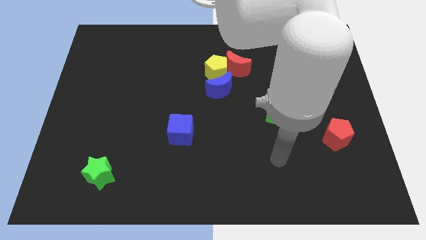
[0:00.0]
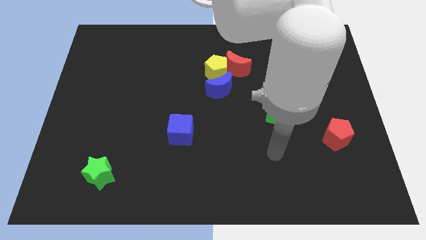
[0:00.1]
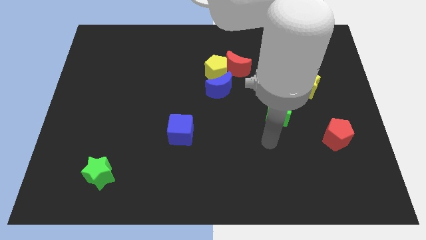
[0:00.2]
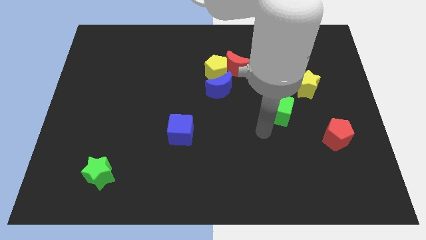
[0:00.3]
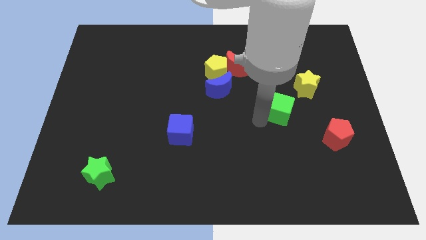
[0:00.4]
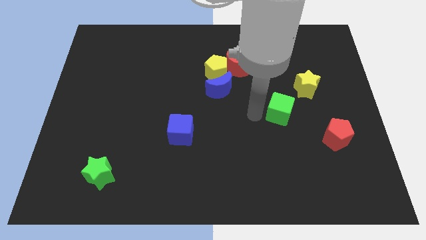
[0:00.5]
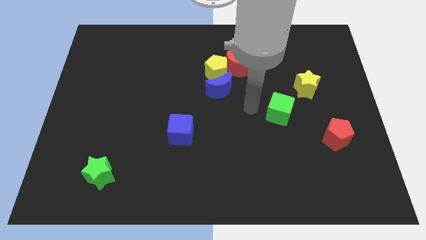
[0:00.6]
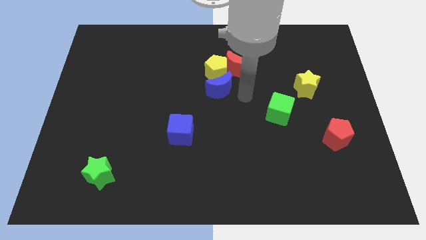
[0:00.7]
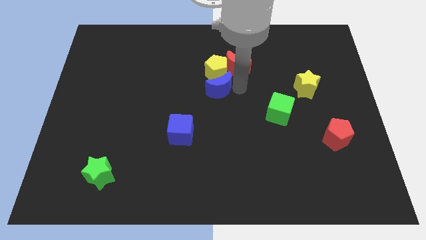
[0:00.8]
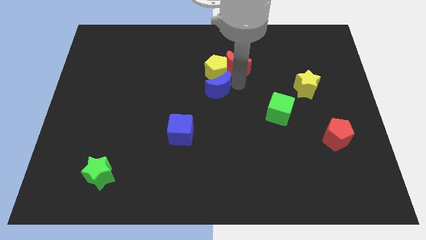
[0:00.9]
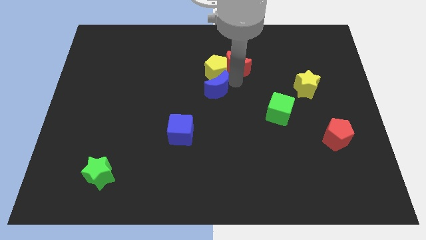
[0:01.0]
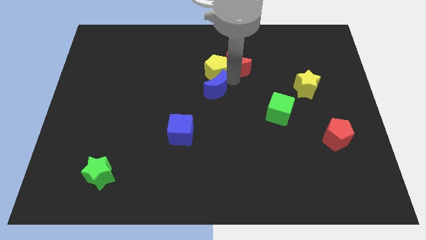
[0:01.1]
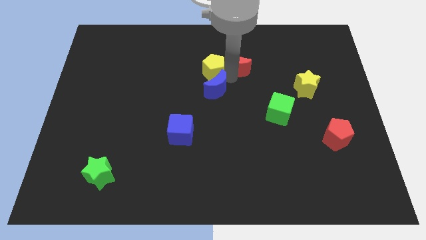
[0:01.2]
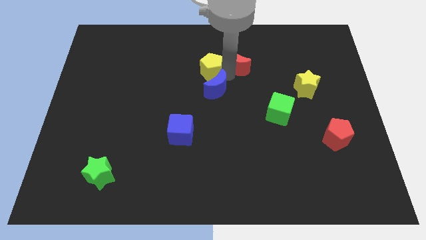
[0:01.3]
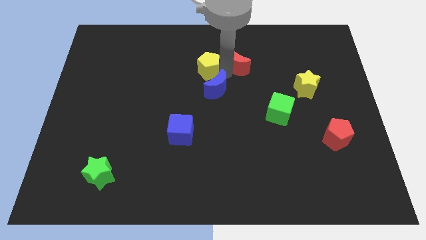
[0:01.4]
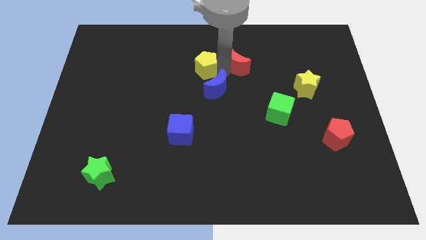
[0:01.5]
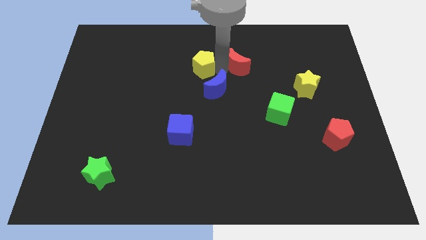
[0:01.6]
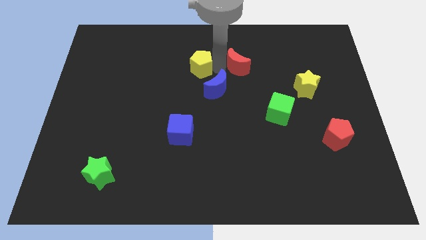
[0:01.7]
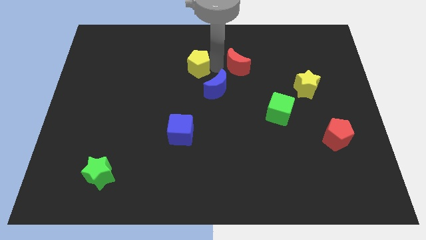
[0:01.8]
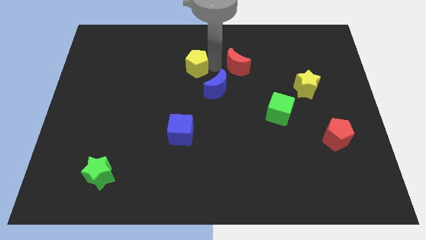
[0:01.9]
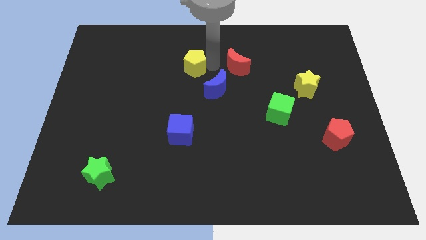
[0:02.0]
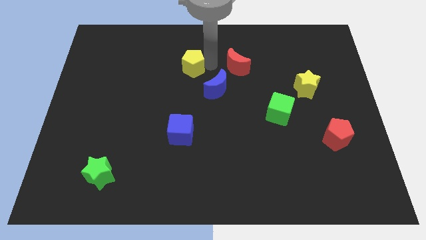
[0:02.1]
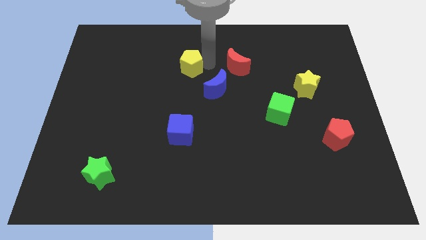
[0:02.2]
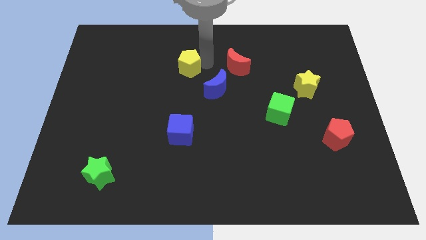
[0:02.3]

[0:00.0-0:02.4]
move the yellow pentagon away from the red moon and blue moon

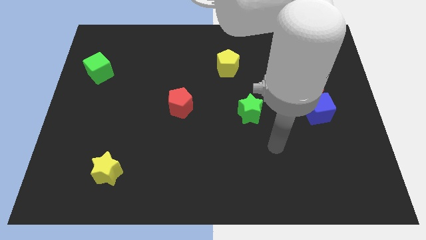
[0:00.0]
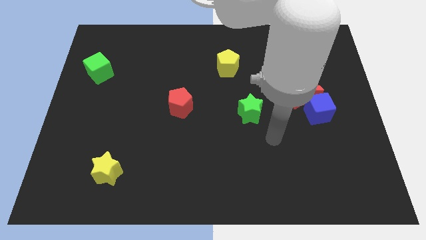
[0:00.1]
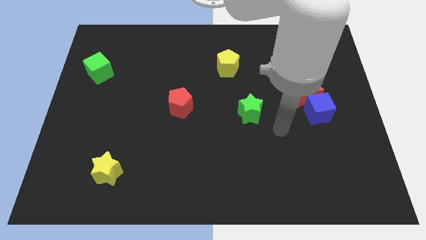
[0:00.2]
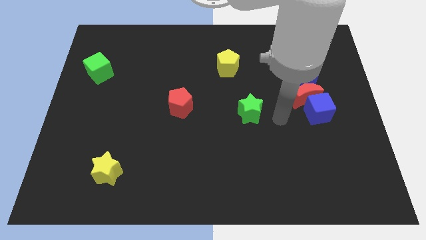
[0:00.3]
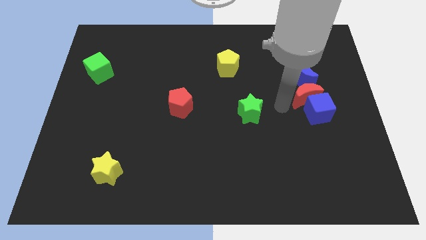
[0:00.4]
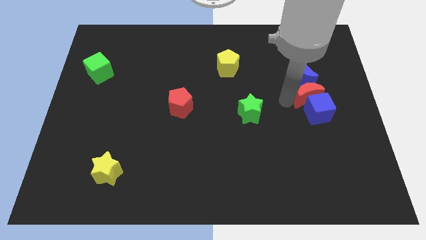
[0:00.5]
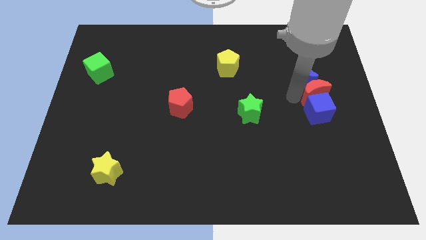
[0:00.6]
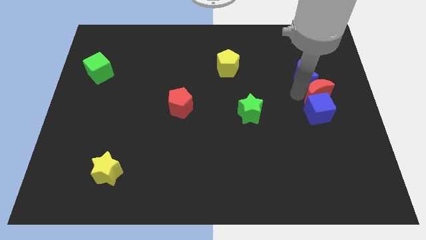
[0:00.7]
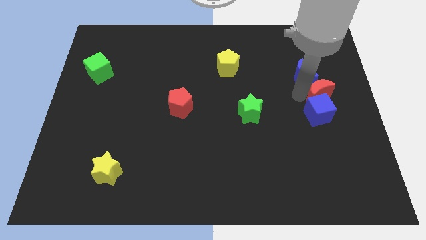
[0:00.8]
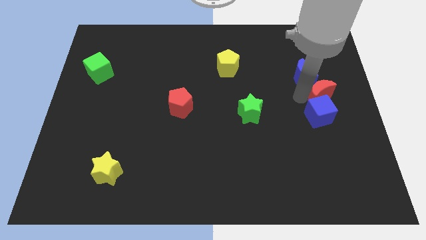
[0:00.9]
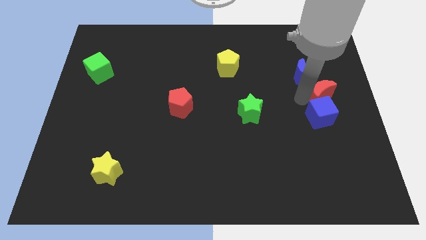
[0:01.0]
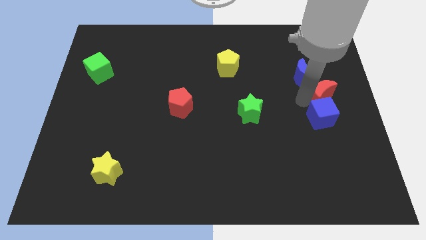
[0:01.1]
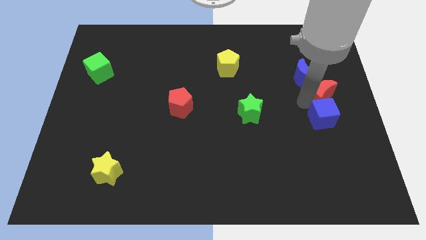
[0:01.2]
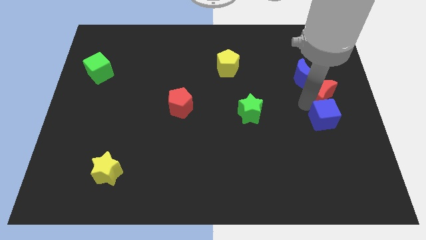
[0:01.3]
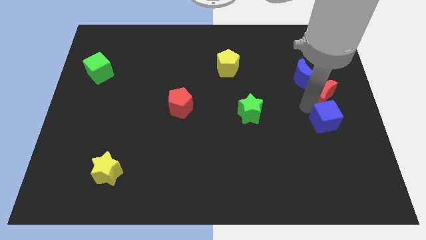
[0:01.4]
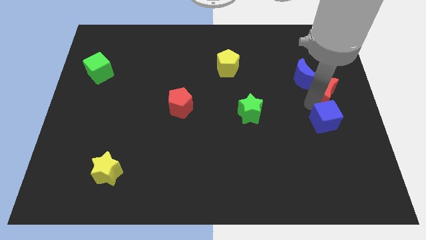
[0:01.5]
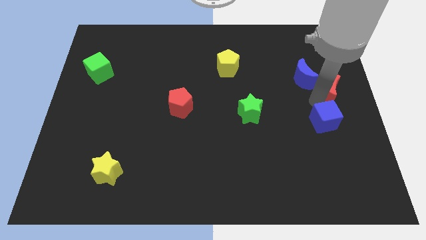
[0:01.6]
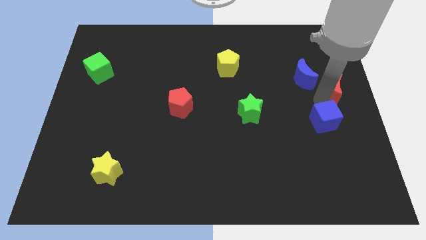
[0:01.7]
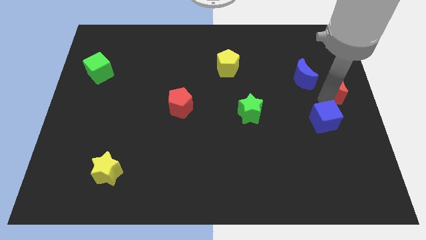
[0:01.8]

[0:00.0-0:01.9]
move the blue cube away from the red moon

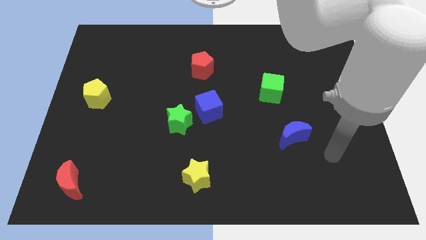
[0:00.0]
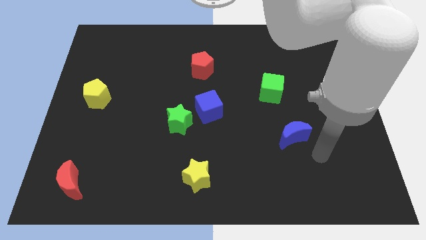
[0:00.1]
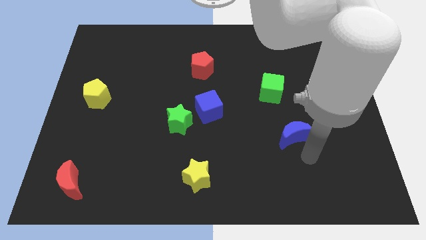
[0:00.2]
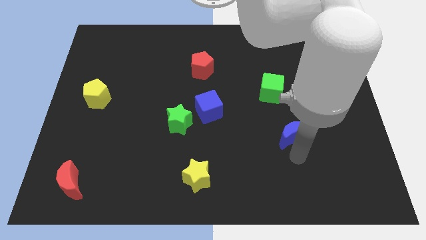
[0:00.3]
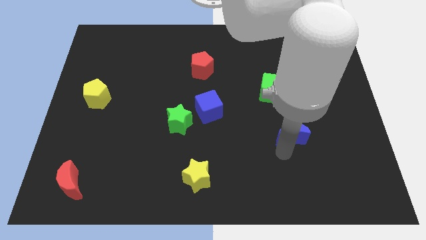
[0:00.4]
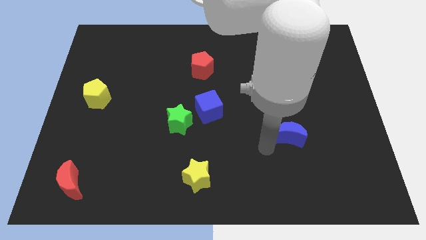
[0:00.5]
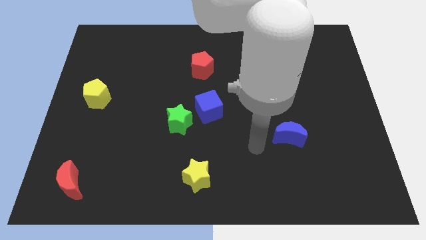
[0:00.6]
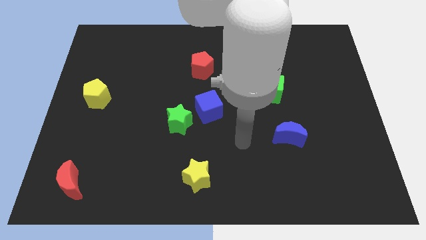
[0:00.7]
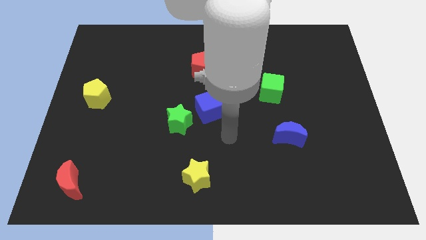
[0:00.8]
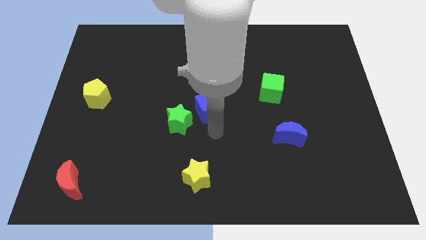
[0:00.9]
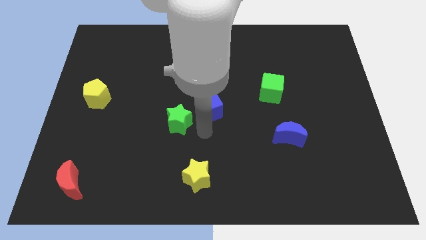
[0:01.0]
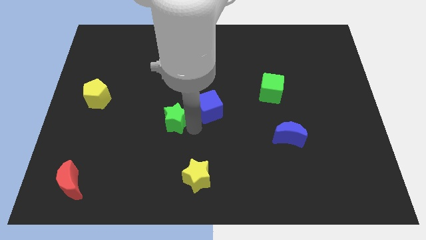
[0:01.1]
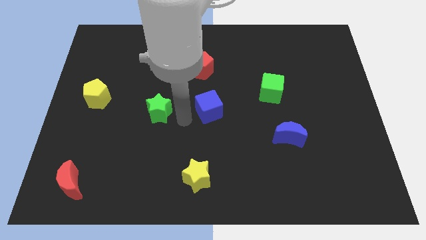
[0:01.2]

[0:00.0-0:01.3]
pull the blue cube apart from the green star

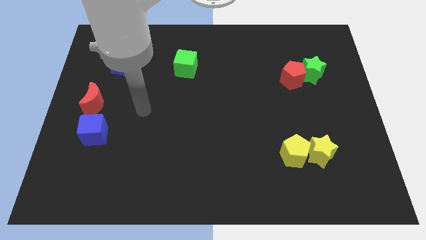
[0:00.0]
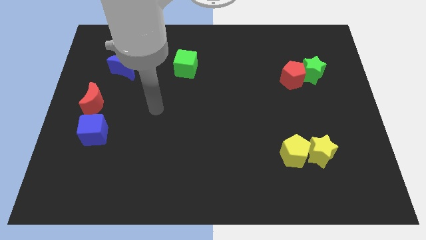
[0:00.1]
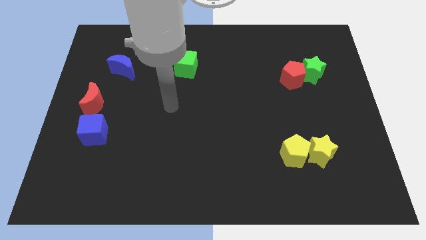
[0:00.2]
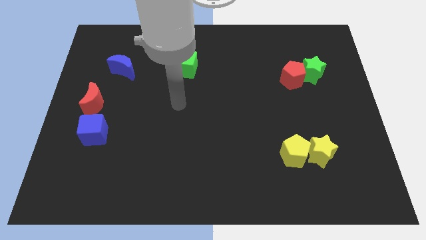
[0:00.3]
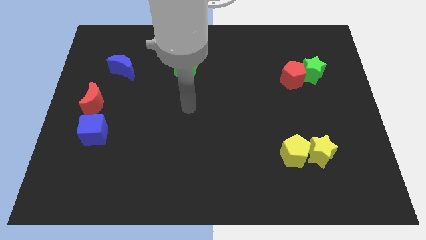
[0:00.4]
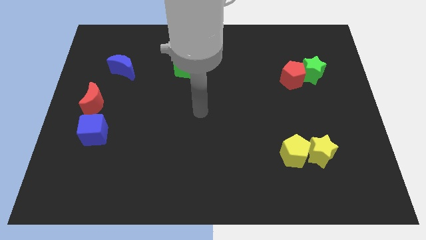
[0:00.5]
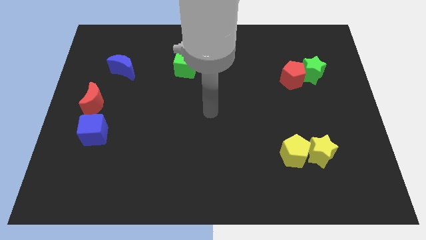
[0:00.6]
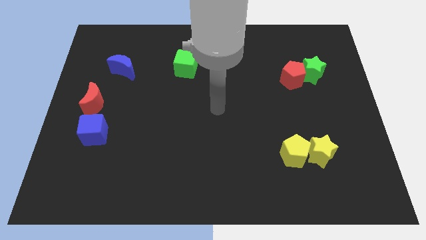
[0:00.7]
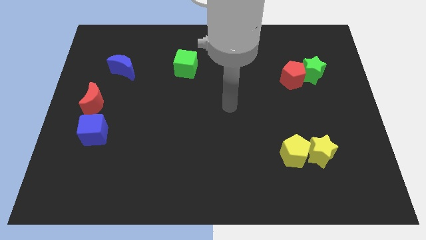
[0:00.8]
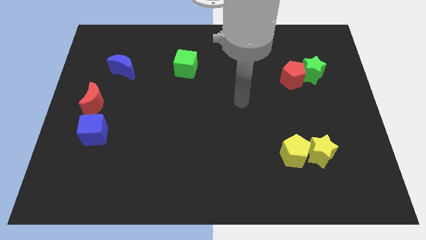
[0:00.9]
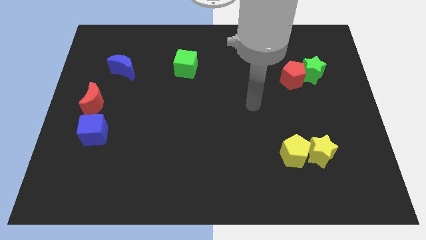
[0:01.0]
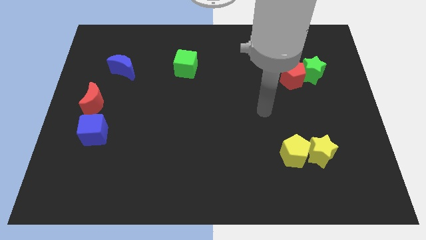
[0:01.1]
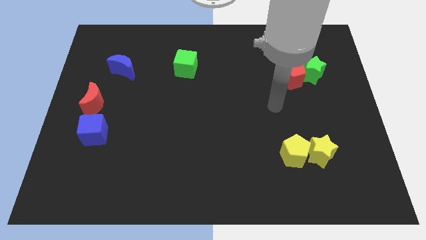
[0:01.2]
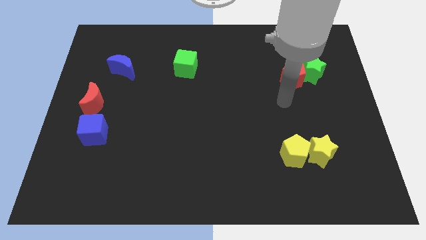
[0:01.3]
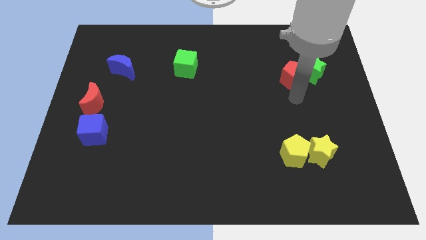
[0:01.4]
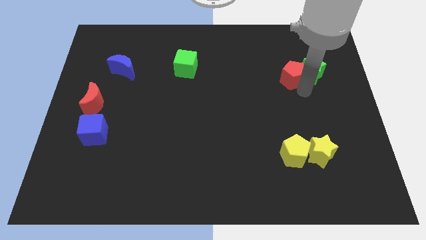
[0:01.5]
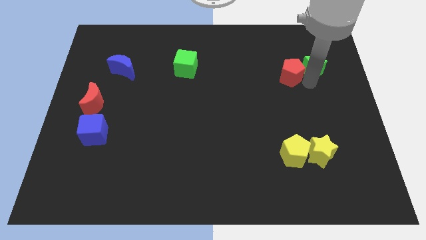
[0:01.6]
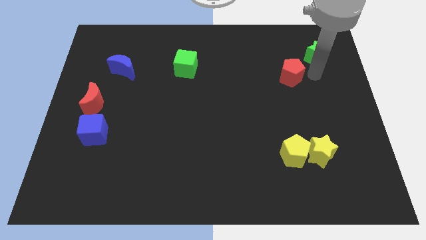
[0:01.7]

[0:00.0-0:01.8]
separate the red pentagon from the green star

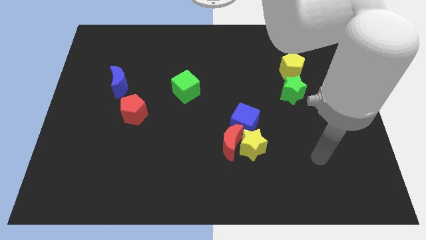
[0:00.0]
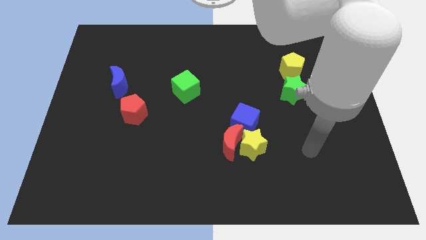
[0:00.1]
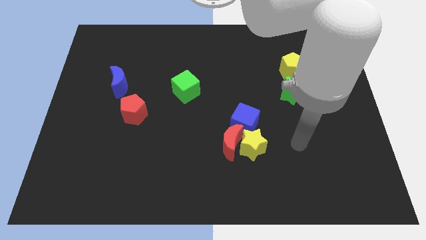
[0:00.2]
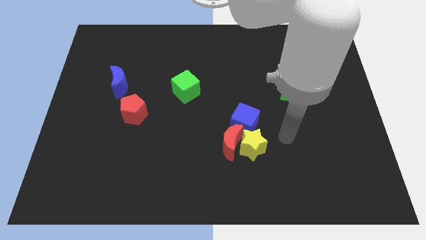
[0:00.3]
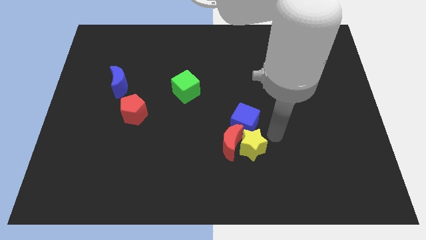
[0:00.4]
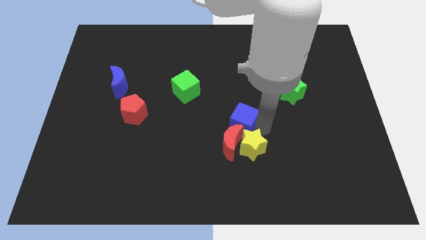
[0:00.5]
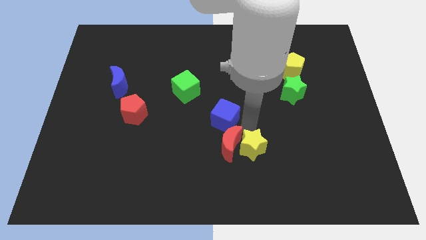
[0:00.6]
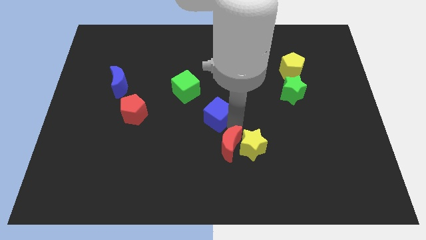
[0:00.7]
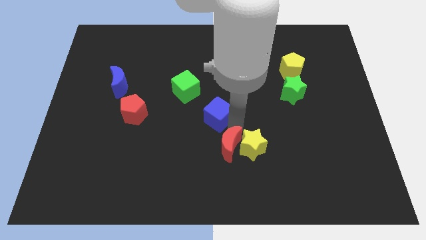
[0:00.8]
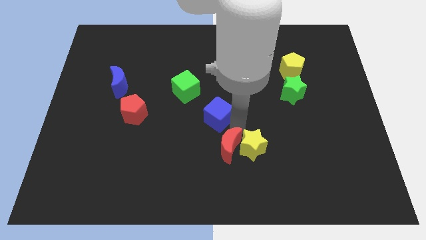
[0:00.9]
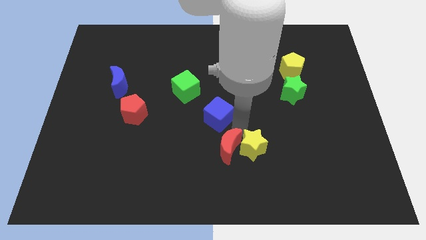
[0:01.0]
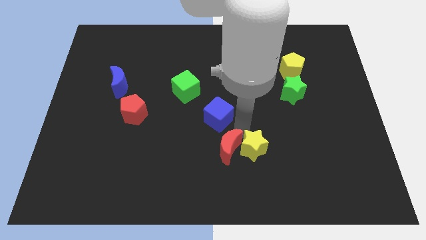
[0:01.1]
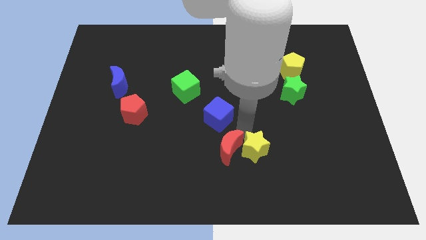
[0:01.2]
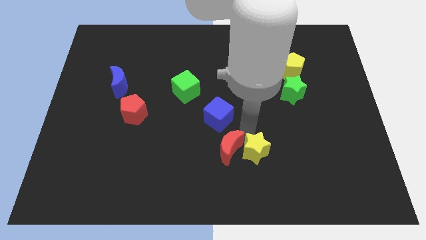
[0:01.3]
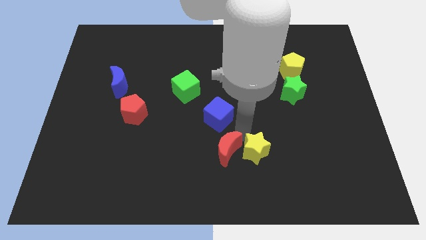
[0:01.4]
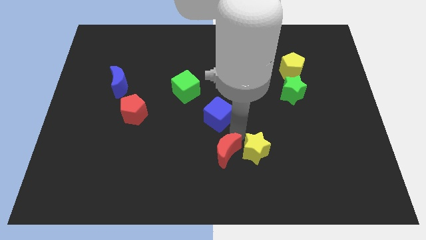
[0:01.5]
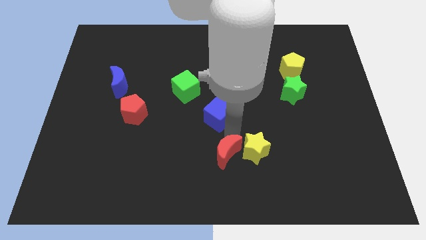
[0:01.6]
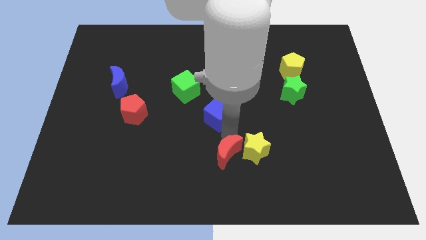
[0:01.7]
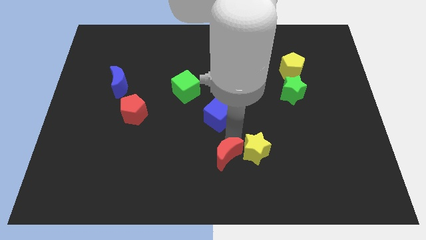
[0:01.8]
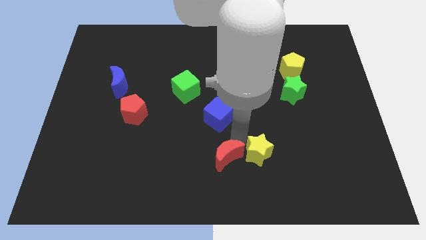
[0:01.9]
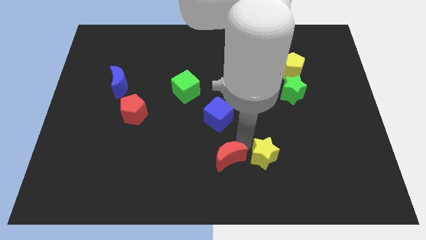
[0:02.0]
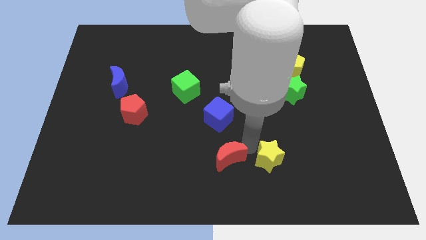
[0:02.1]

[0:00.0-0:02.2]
move the yellow star away from the red moon and blue cube
